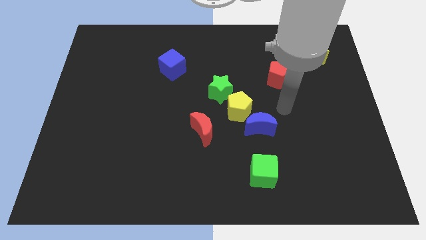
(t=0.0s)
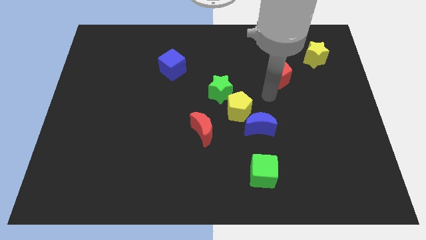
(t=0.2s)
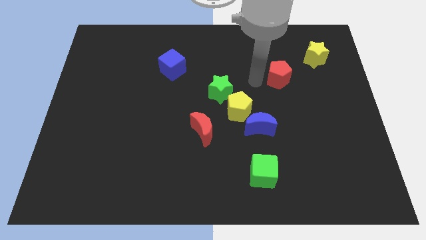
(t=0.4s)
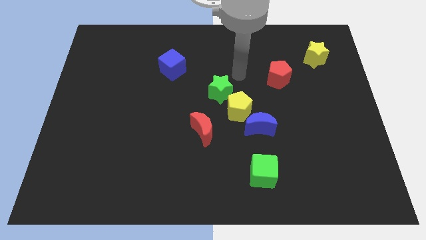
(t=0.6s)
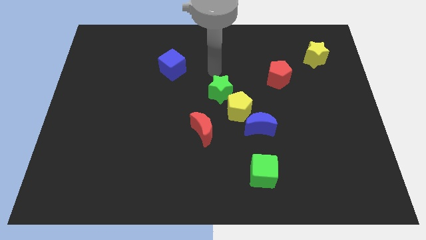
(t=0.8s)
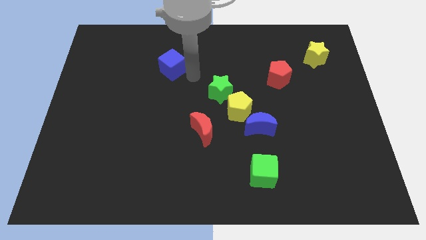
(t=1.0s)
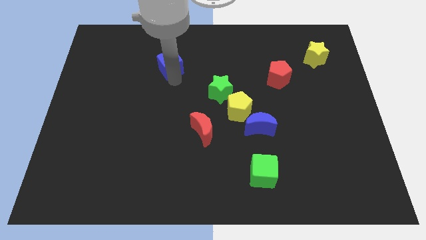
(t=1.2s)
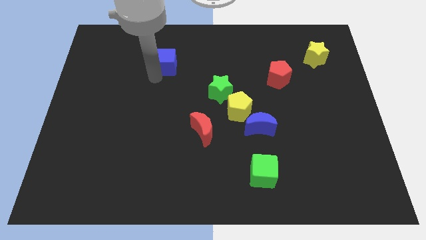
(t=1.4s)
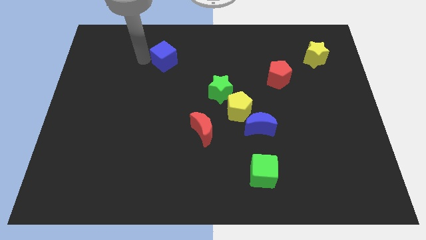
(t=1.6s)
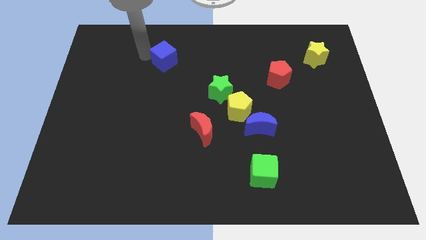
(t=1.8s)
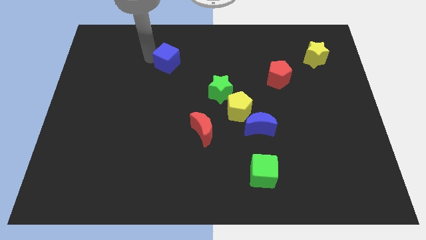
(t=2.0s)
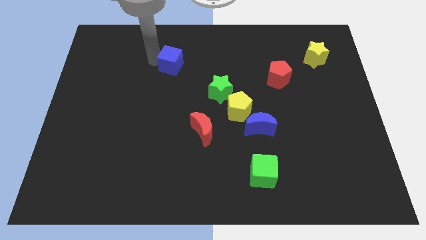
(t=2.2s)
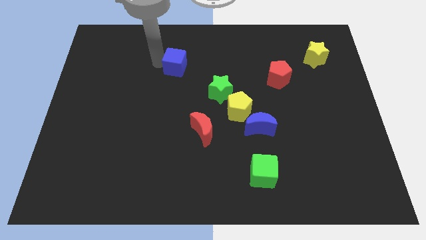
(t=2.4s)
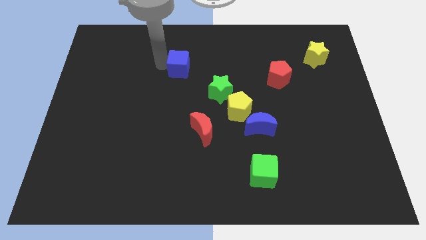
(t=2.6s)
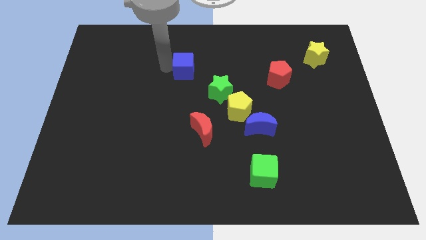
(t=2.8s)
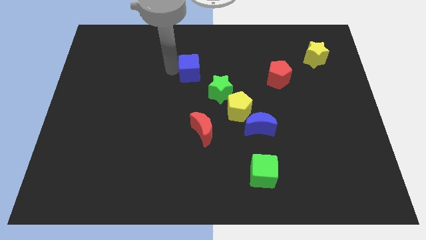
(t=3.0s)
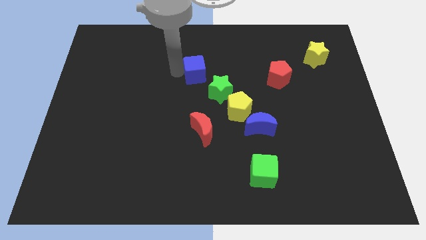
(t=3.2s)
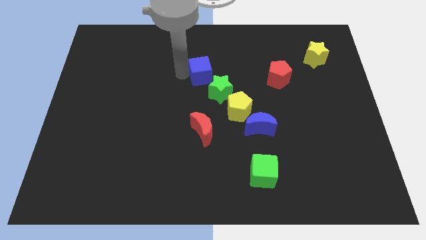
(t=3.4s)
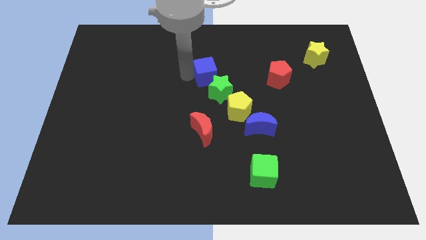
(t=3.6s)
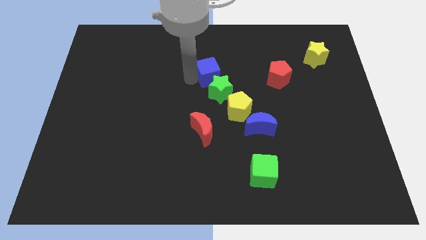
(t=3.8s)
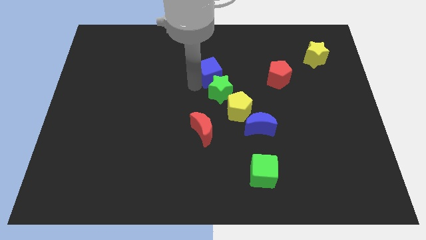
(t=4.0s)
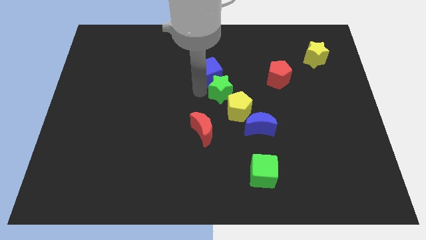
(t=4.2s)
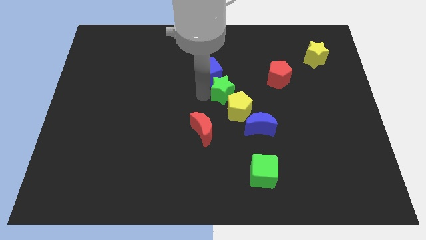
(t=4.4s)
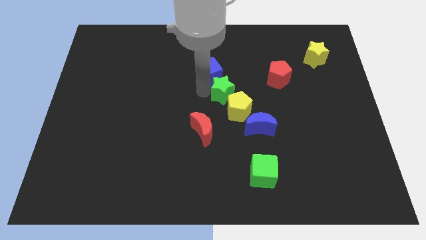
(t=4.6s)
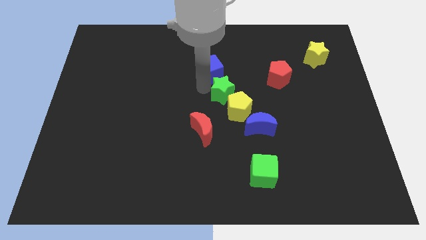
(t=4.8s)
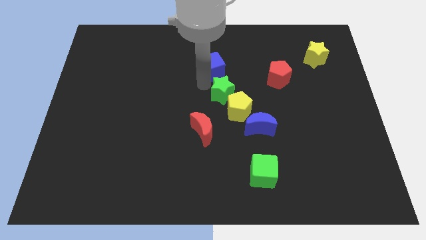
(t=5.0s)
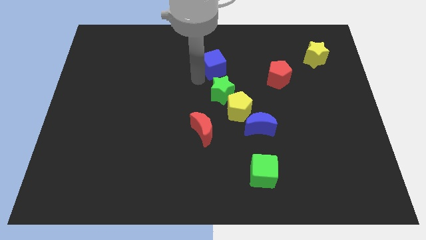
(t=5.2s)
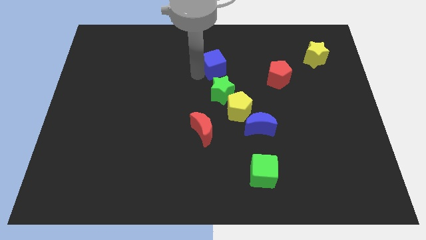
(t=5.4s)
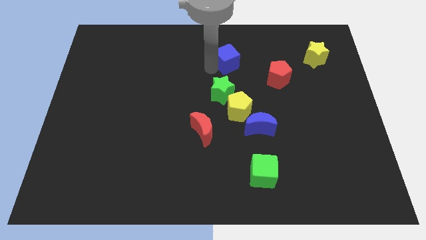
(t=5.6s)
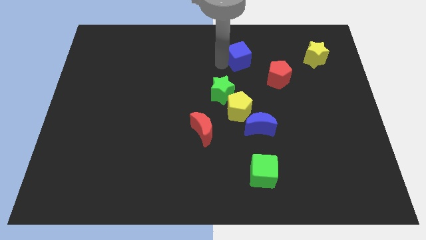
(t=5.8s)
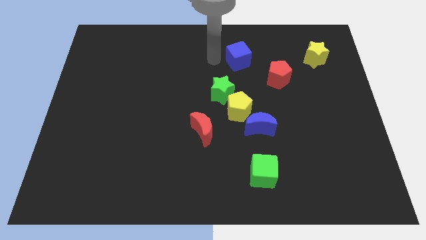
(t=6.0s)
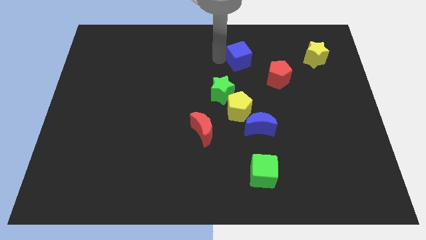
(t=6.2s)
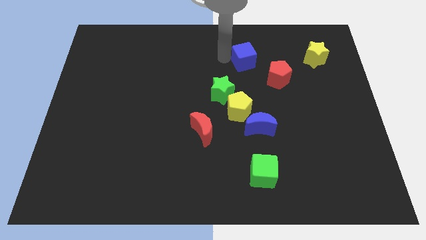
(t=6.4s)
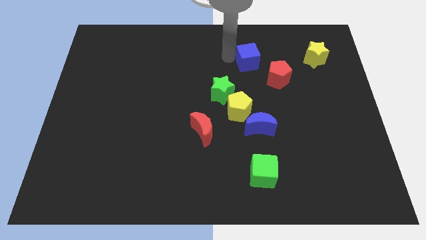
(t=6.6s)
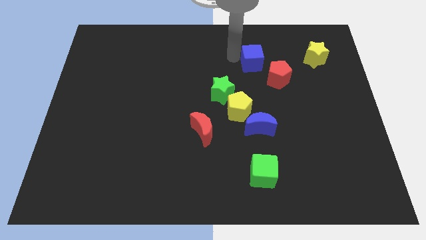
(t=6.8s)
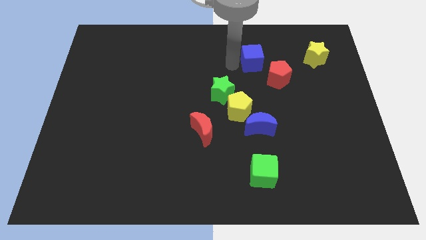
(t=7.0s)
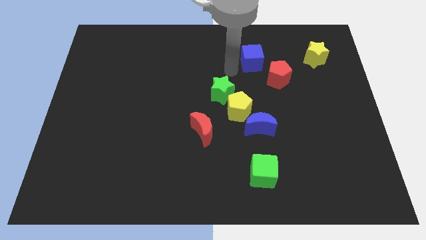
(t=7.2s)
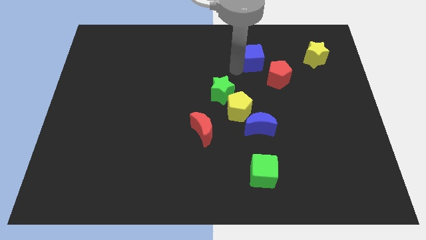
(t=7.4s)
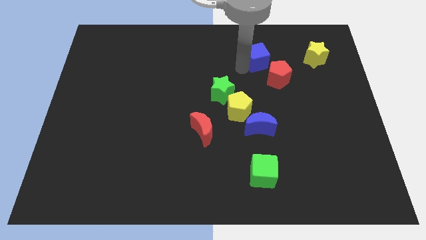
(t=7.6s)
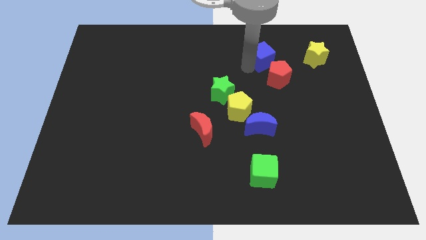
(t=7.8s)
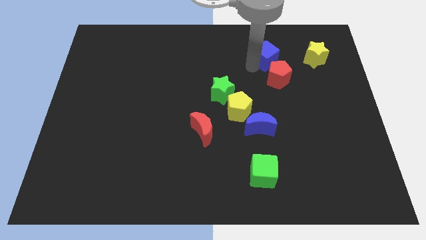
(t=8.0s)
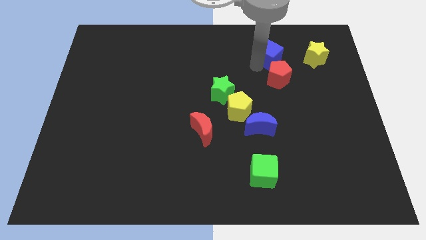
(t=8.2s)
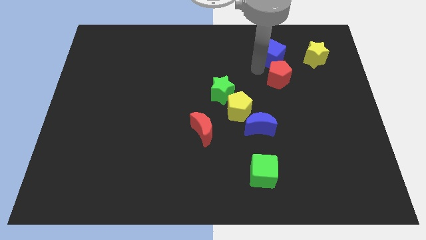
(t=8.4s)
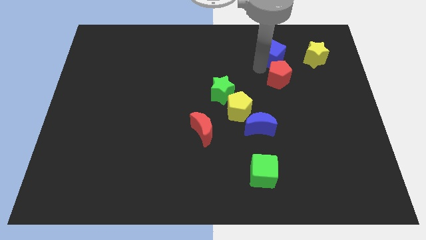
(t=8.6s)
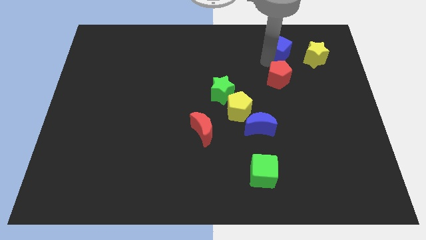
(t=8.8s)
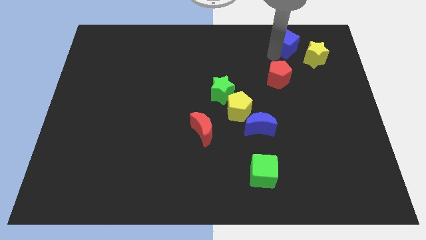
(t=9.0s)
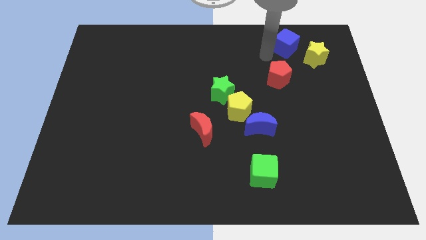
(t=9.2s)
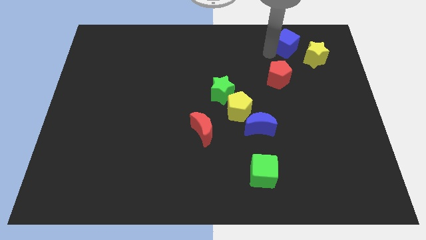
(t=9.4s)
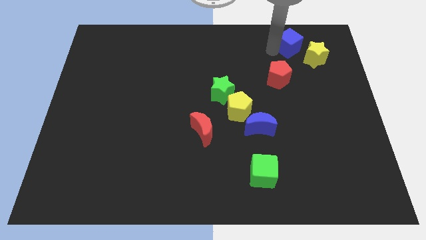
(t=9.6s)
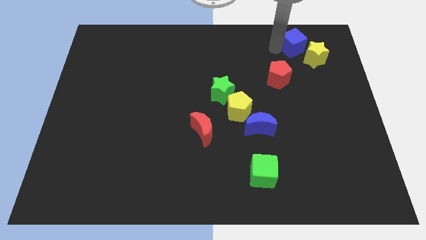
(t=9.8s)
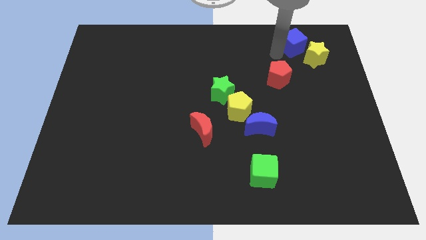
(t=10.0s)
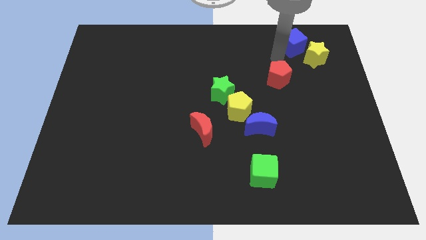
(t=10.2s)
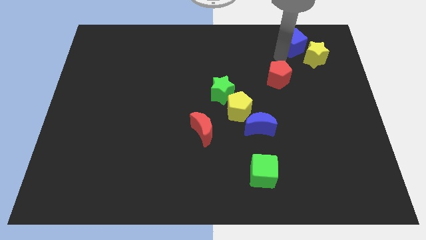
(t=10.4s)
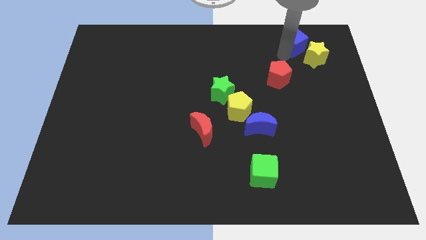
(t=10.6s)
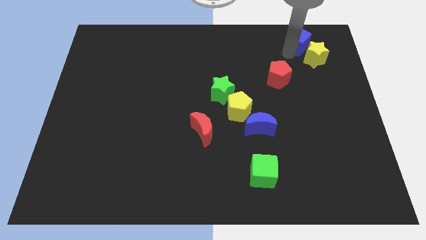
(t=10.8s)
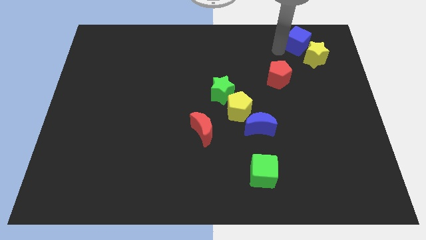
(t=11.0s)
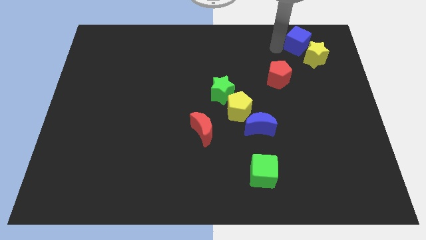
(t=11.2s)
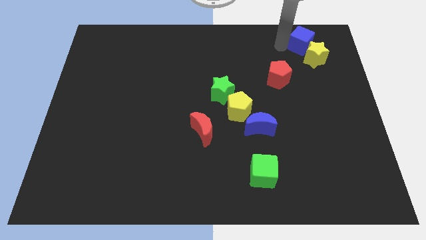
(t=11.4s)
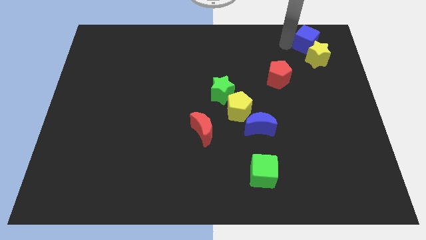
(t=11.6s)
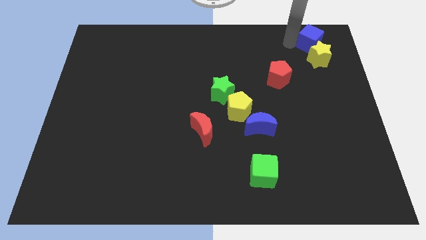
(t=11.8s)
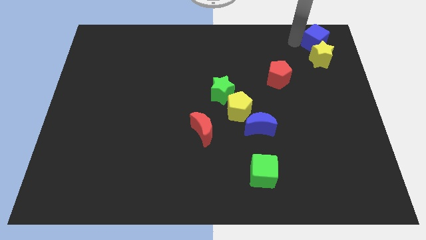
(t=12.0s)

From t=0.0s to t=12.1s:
move the blue cube to the top right of the board

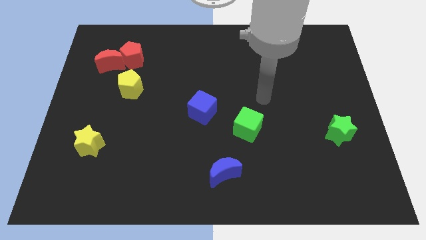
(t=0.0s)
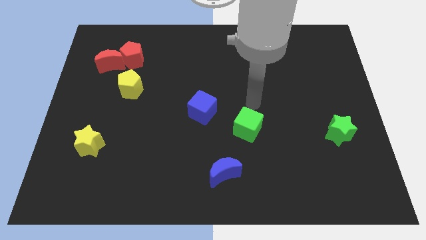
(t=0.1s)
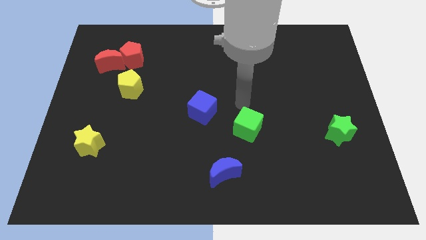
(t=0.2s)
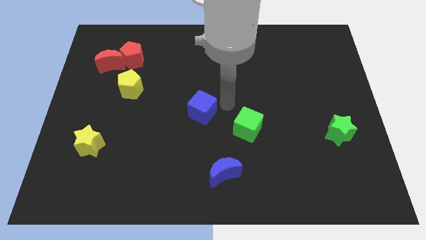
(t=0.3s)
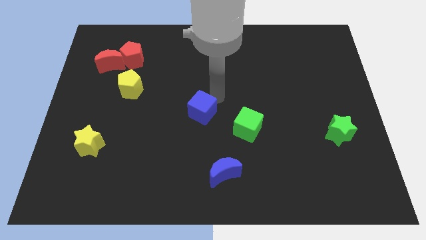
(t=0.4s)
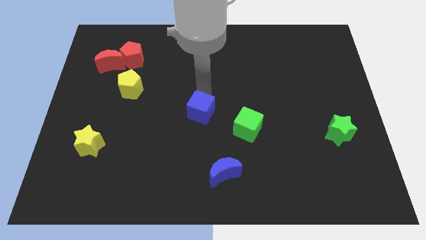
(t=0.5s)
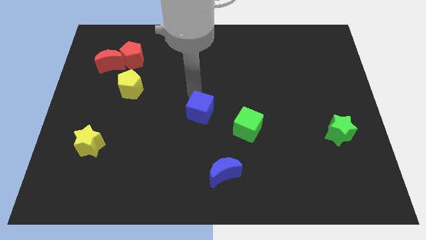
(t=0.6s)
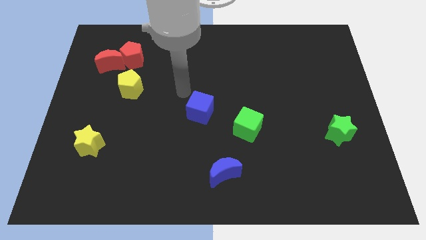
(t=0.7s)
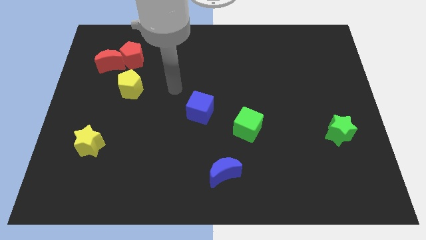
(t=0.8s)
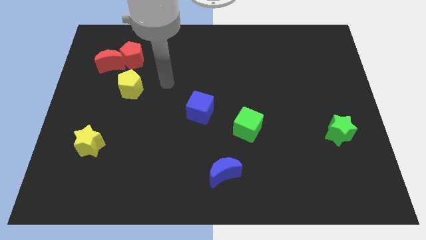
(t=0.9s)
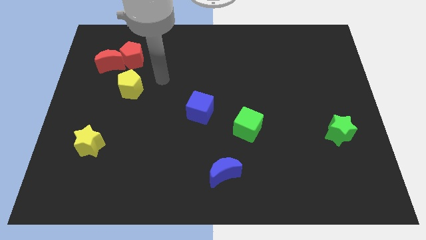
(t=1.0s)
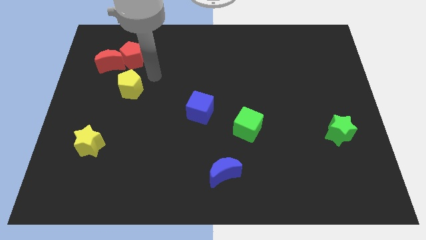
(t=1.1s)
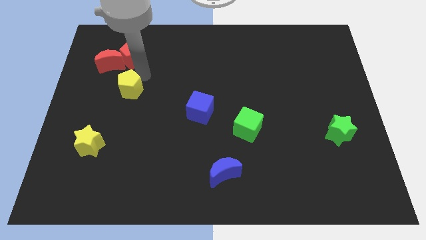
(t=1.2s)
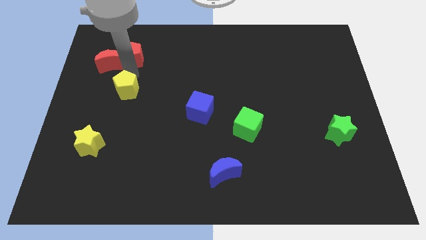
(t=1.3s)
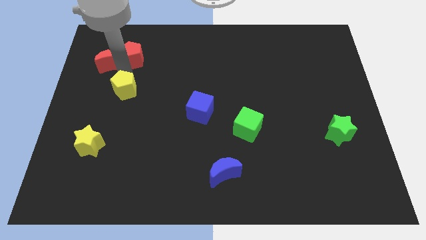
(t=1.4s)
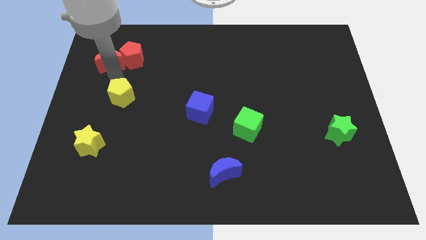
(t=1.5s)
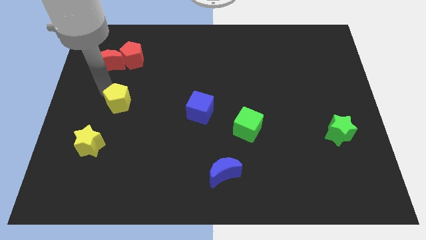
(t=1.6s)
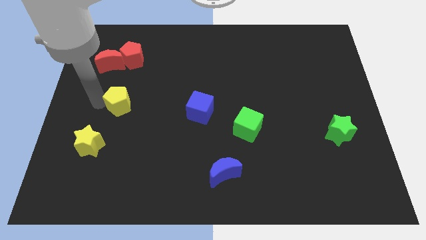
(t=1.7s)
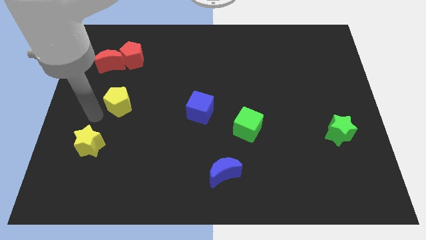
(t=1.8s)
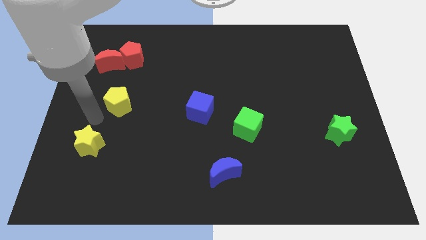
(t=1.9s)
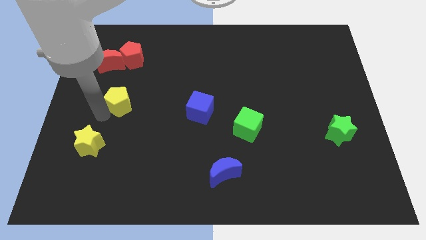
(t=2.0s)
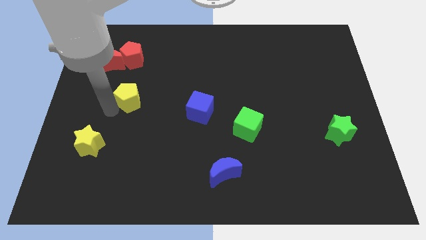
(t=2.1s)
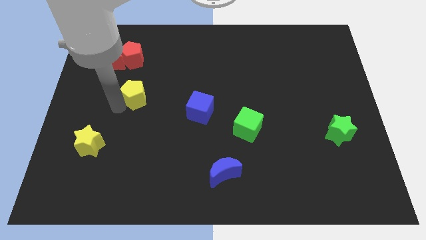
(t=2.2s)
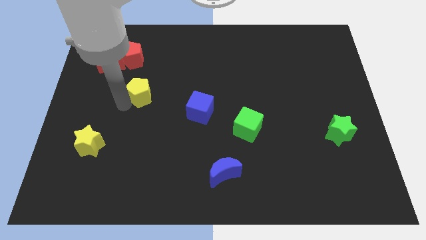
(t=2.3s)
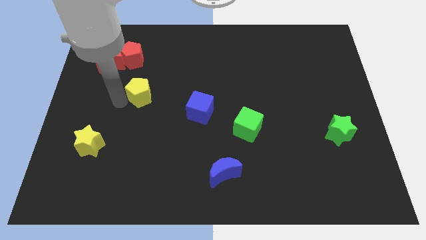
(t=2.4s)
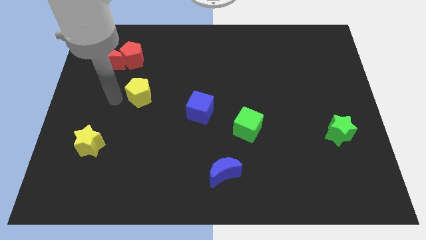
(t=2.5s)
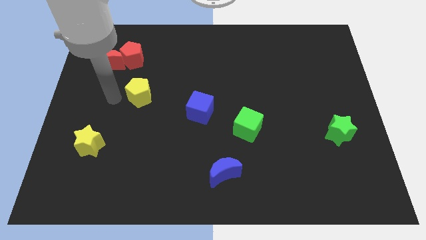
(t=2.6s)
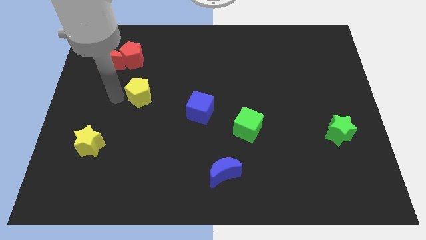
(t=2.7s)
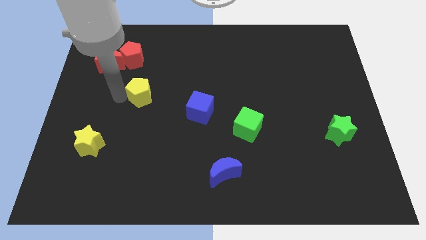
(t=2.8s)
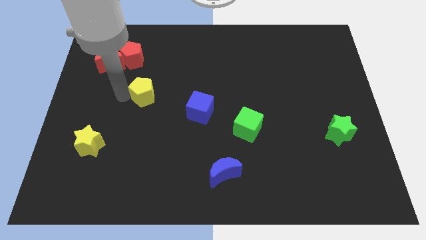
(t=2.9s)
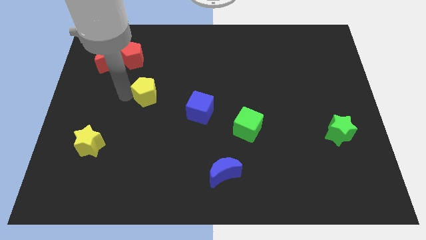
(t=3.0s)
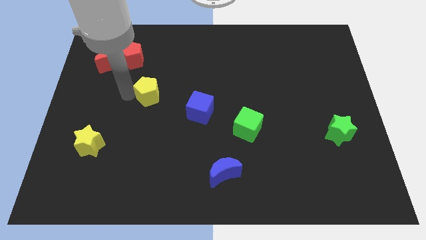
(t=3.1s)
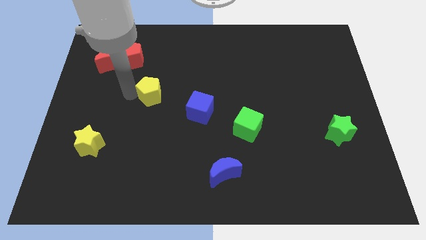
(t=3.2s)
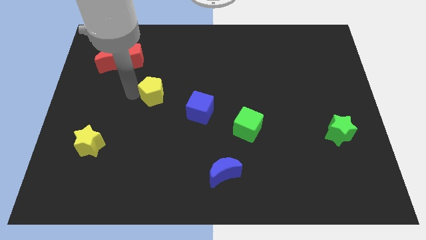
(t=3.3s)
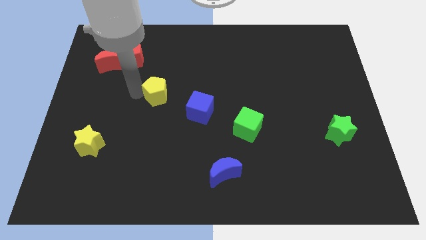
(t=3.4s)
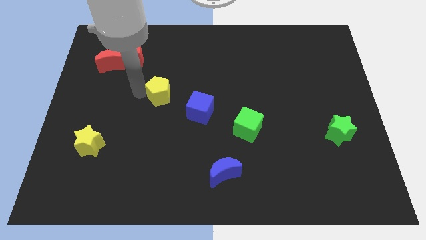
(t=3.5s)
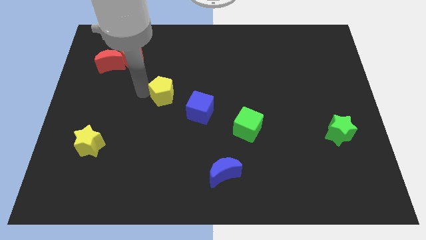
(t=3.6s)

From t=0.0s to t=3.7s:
push the yellow pentagon to the middle
